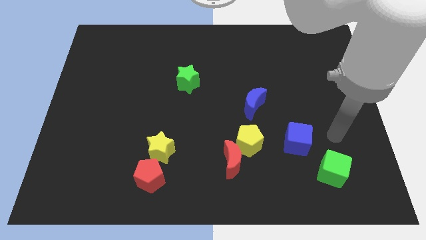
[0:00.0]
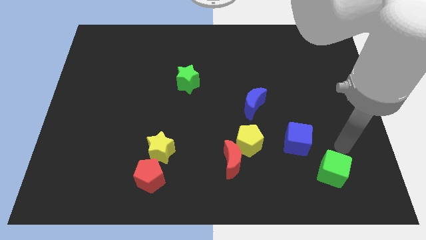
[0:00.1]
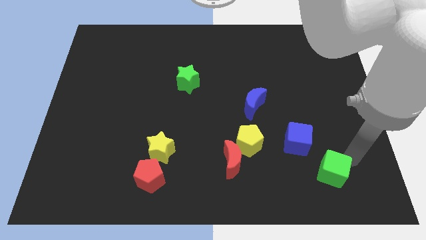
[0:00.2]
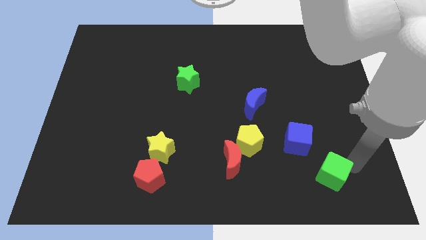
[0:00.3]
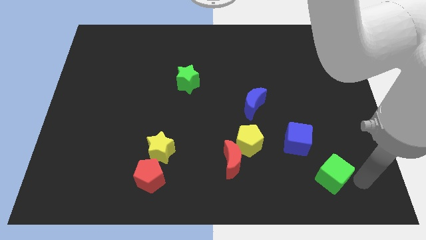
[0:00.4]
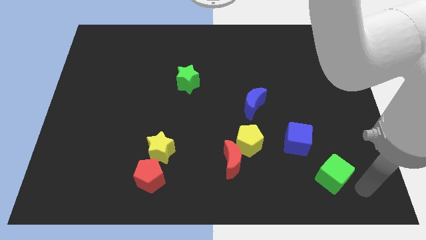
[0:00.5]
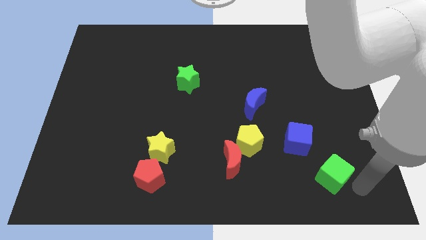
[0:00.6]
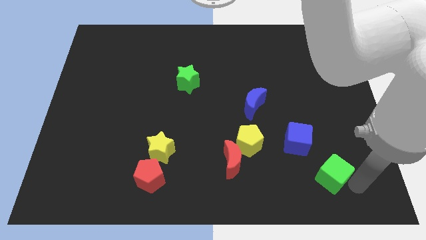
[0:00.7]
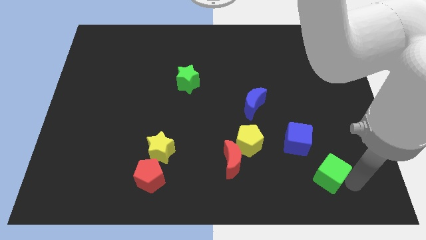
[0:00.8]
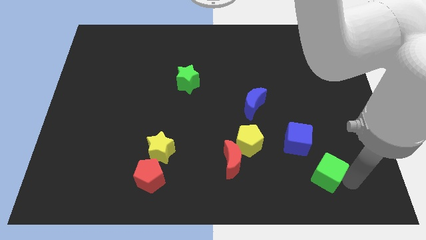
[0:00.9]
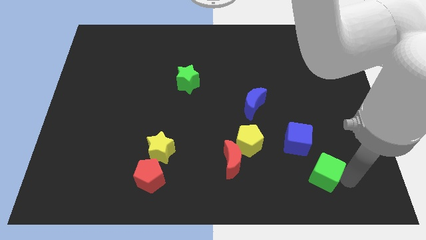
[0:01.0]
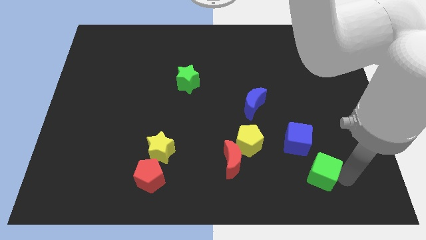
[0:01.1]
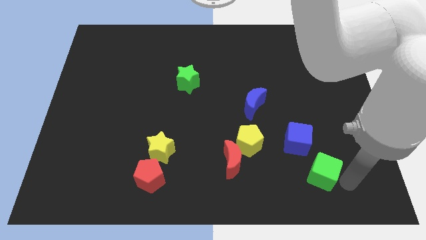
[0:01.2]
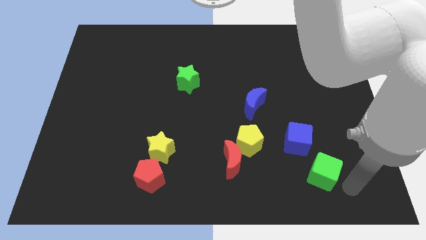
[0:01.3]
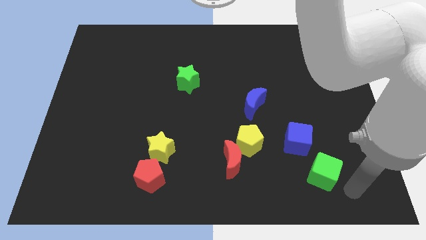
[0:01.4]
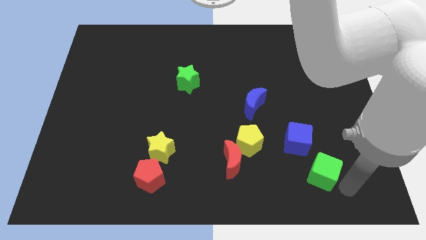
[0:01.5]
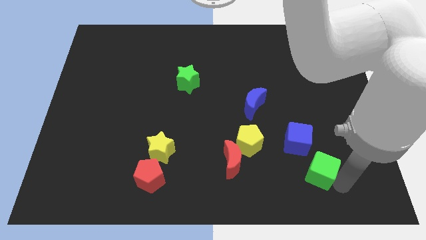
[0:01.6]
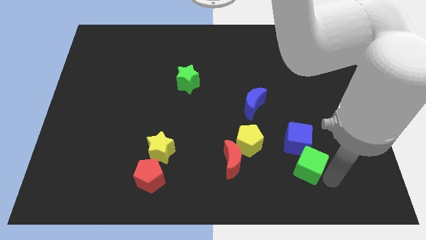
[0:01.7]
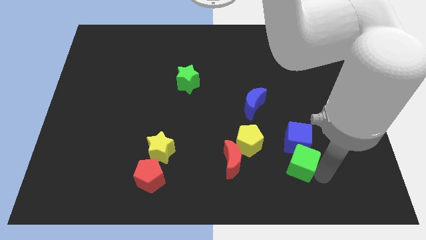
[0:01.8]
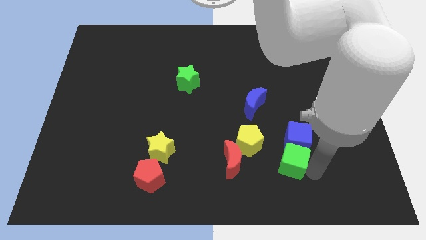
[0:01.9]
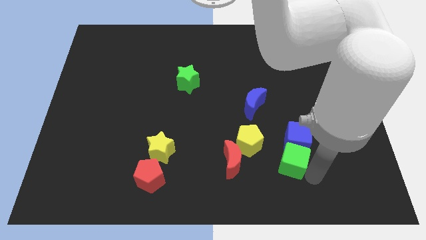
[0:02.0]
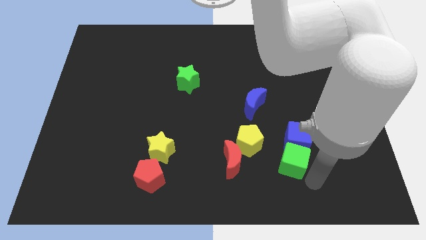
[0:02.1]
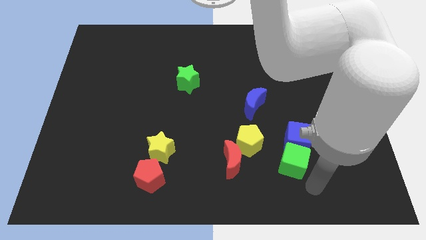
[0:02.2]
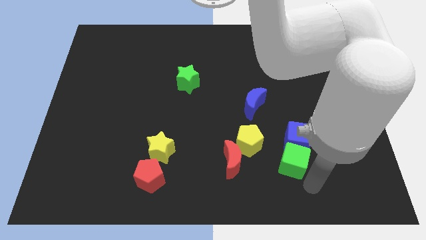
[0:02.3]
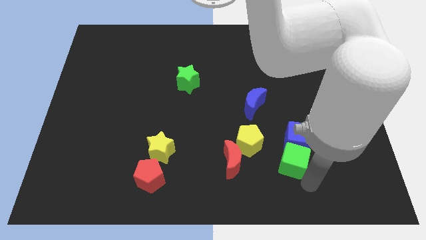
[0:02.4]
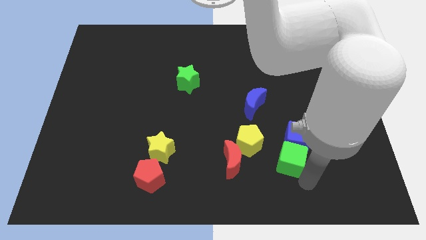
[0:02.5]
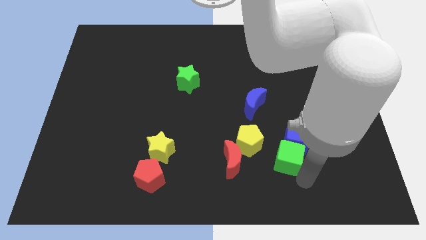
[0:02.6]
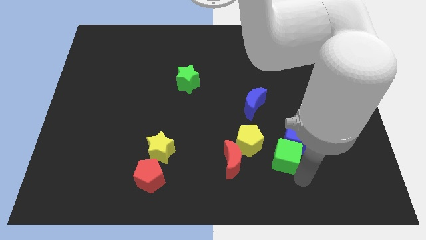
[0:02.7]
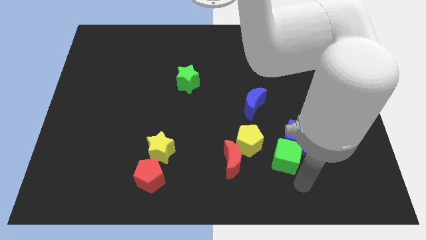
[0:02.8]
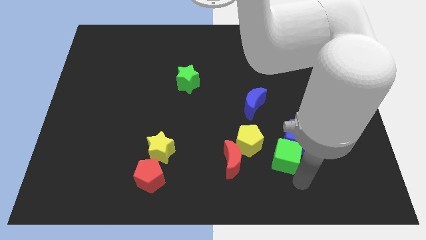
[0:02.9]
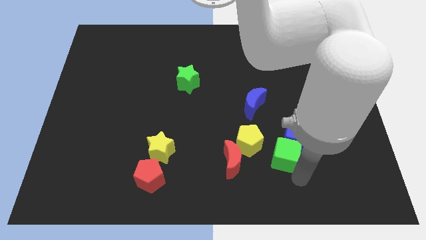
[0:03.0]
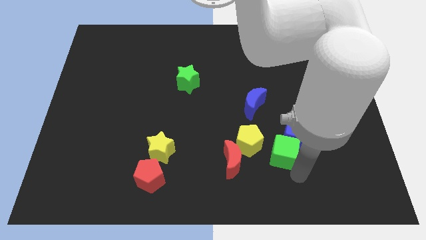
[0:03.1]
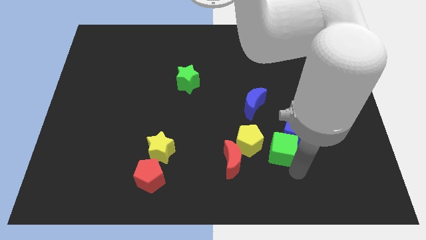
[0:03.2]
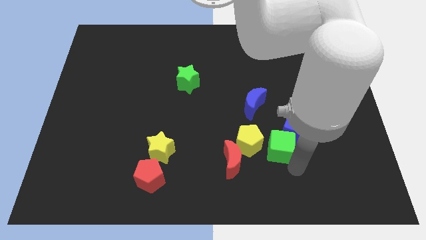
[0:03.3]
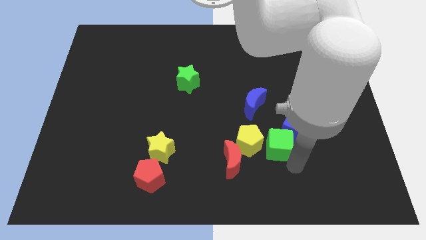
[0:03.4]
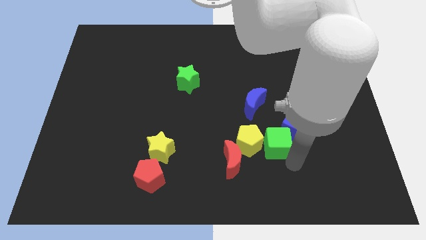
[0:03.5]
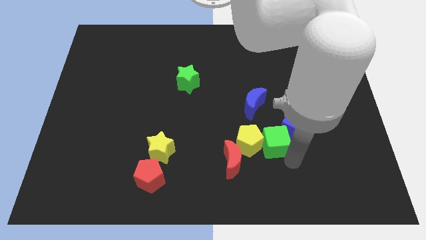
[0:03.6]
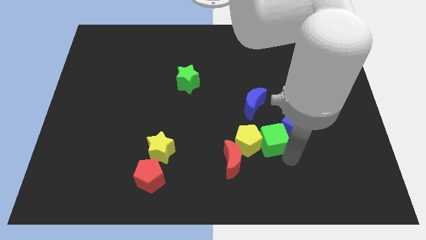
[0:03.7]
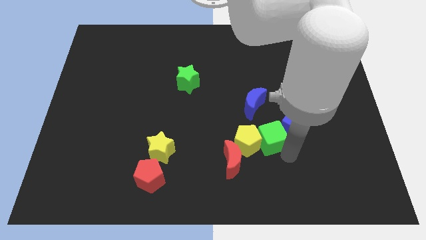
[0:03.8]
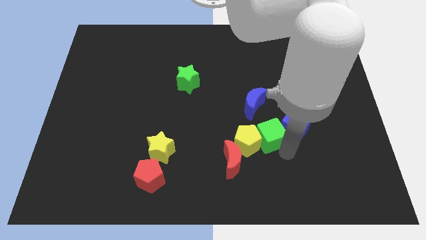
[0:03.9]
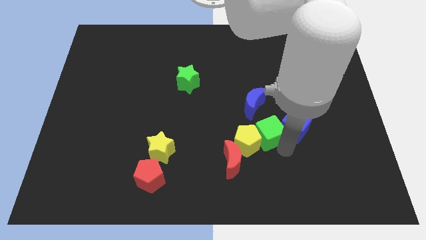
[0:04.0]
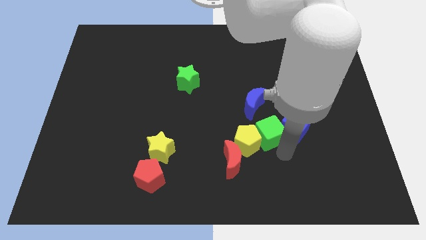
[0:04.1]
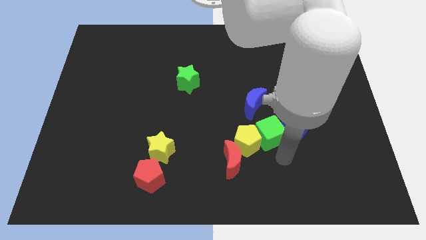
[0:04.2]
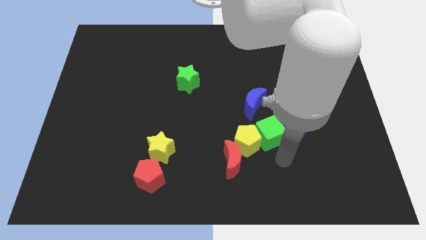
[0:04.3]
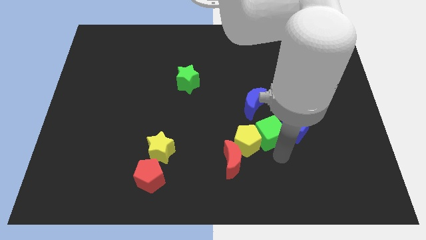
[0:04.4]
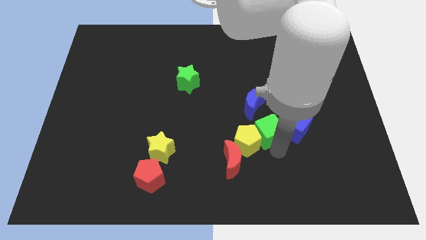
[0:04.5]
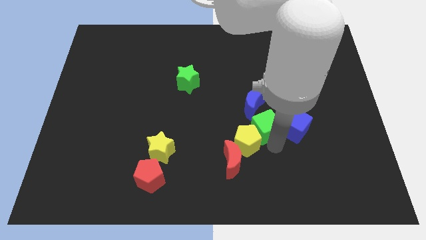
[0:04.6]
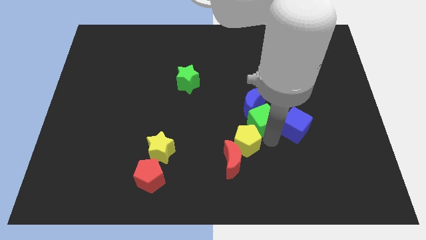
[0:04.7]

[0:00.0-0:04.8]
put the green cube next to the blue moon

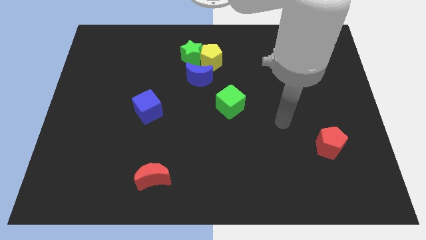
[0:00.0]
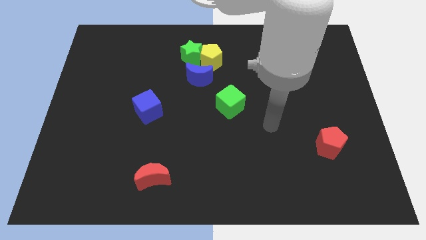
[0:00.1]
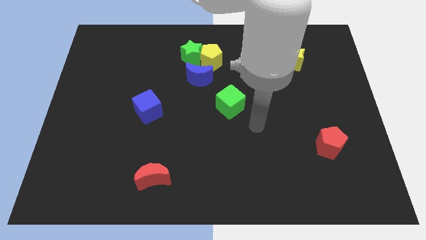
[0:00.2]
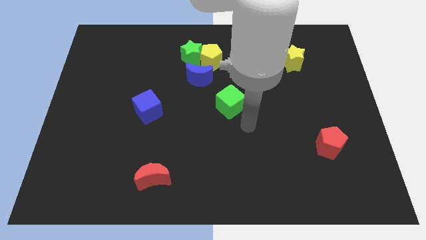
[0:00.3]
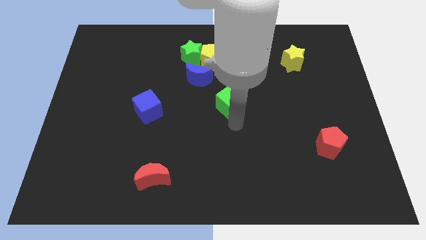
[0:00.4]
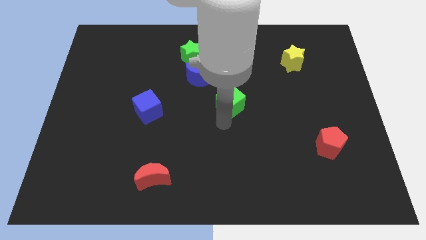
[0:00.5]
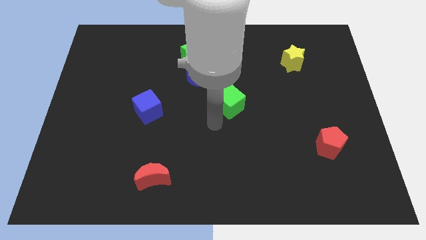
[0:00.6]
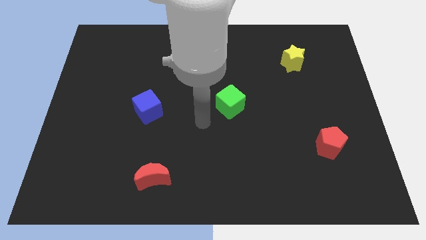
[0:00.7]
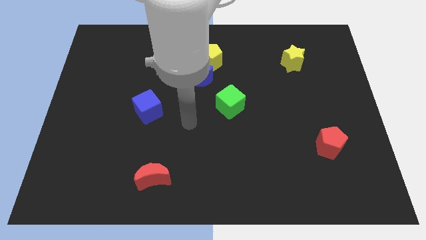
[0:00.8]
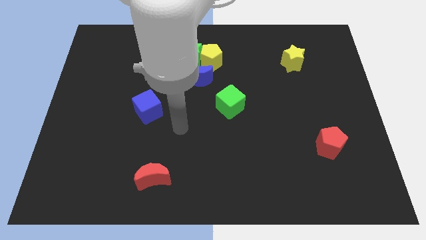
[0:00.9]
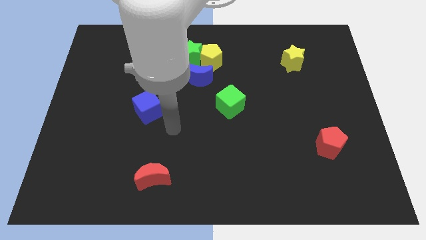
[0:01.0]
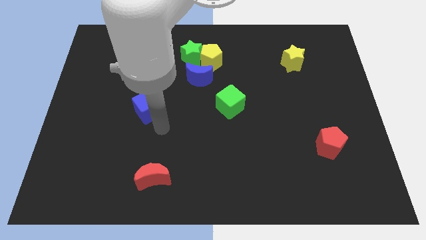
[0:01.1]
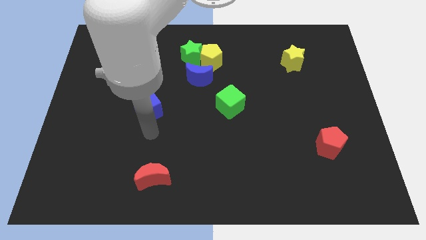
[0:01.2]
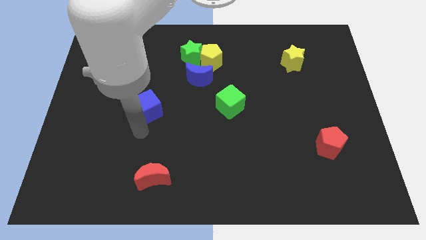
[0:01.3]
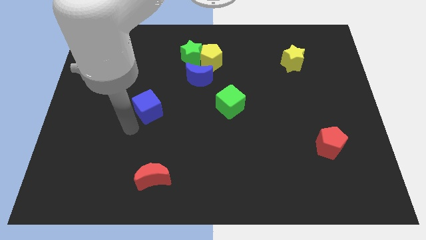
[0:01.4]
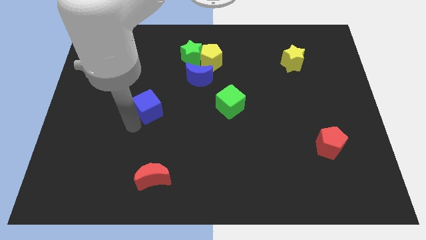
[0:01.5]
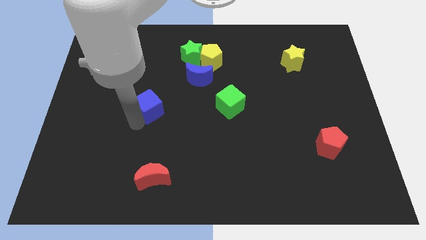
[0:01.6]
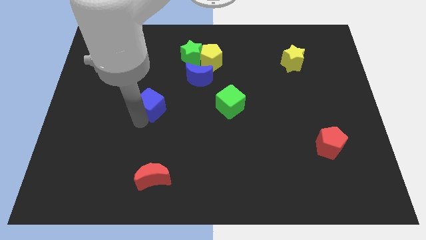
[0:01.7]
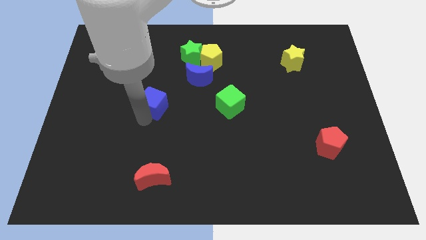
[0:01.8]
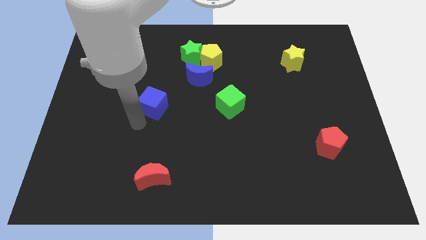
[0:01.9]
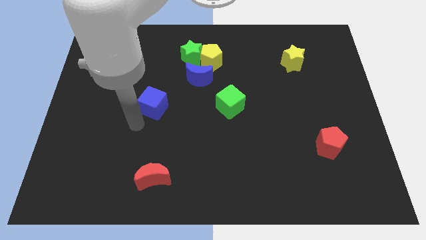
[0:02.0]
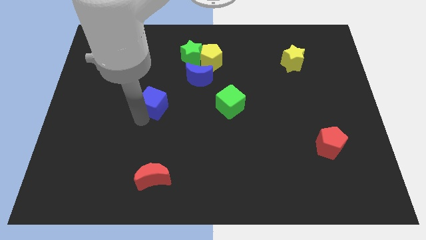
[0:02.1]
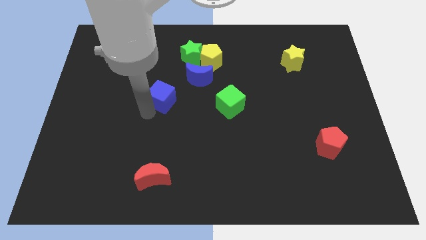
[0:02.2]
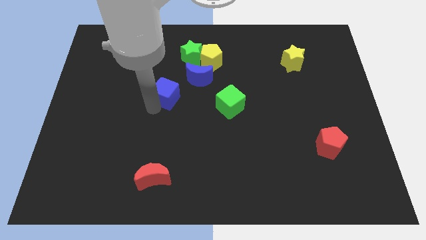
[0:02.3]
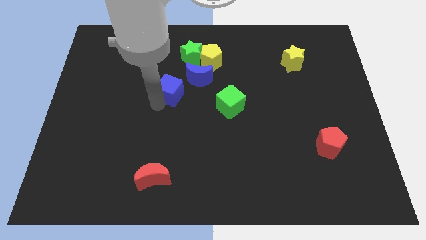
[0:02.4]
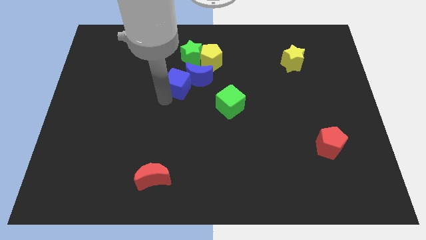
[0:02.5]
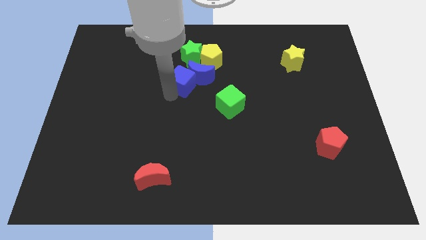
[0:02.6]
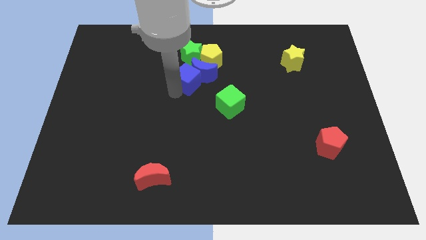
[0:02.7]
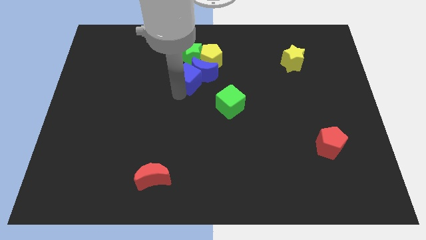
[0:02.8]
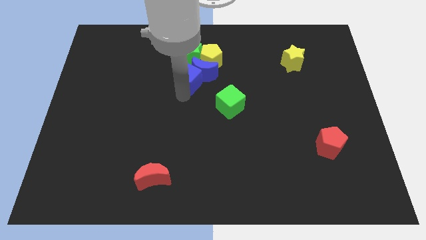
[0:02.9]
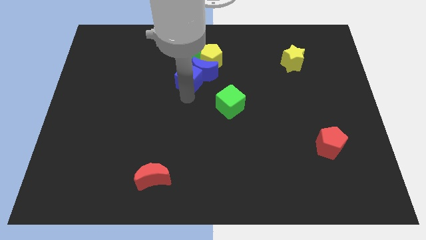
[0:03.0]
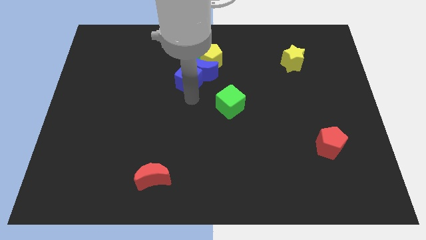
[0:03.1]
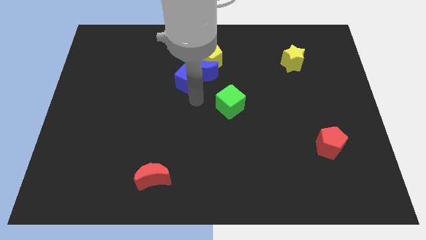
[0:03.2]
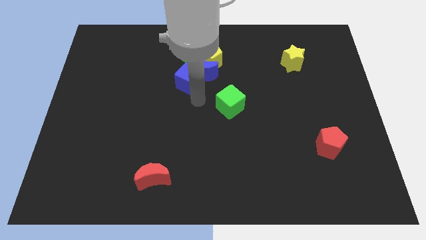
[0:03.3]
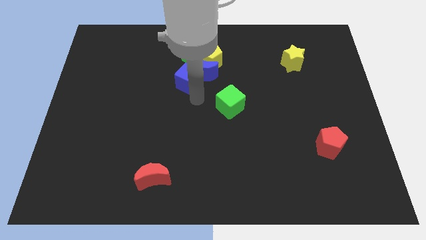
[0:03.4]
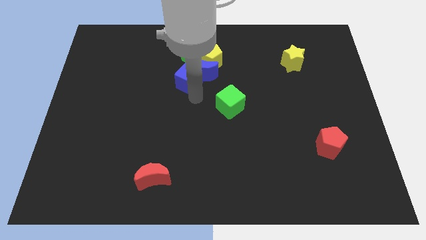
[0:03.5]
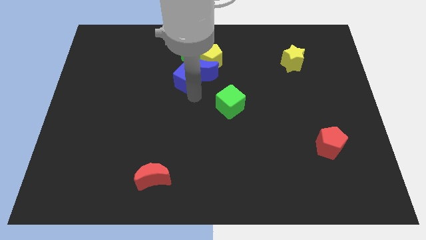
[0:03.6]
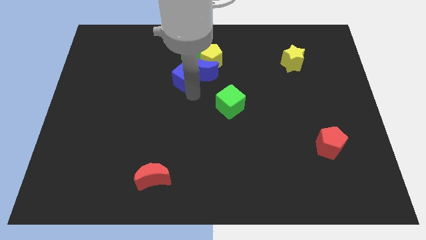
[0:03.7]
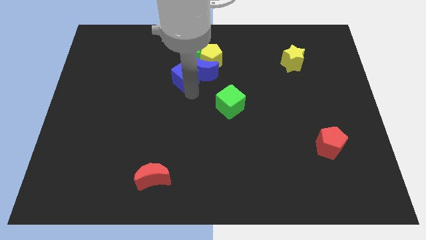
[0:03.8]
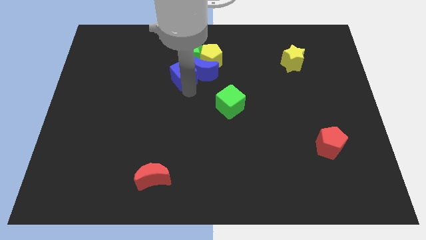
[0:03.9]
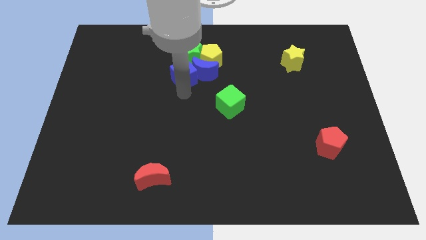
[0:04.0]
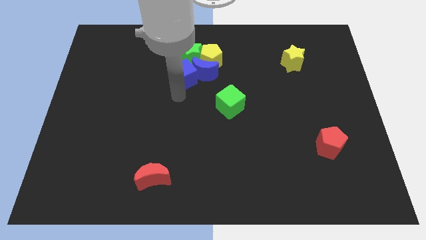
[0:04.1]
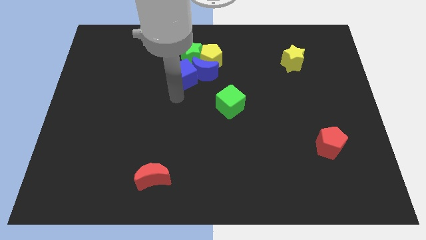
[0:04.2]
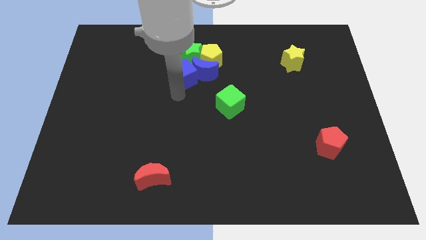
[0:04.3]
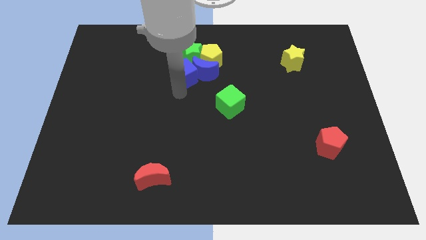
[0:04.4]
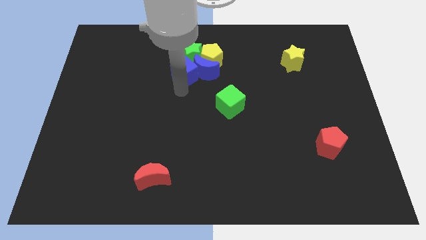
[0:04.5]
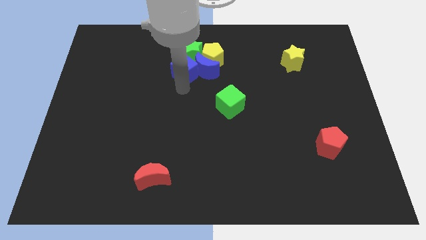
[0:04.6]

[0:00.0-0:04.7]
push the blue cube close to the green star
